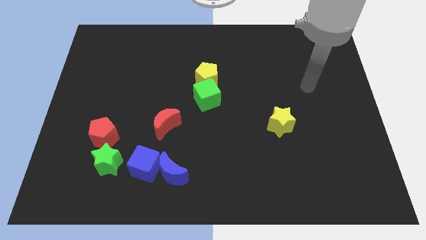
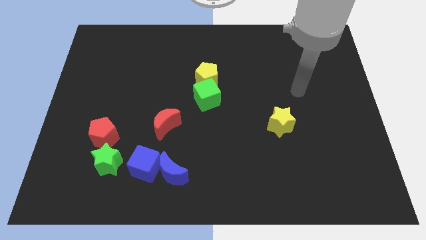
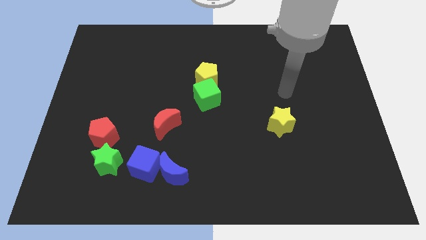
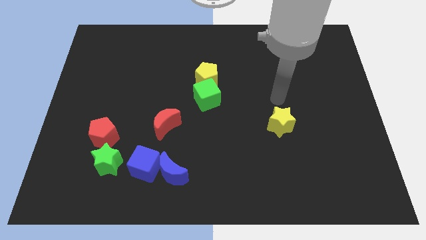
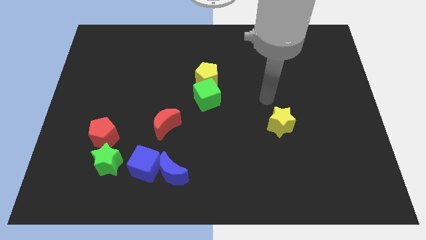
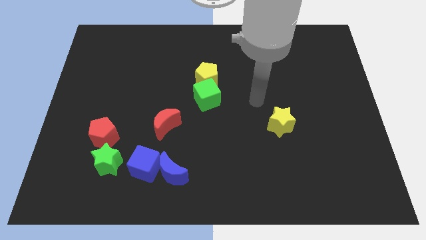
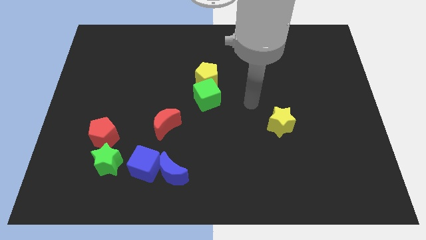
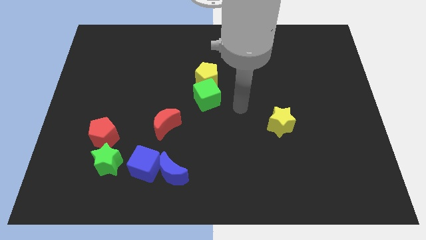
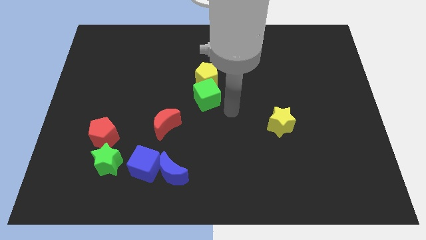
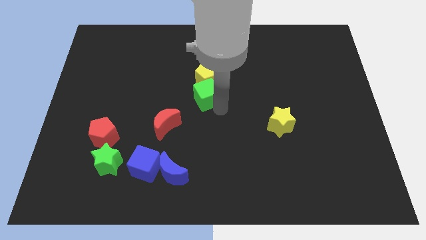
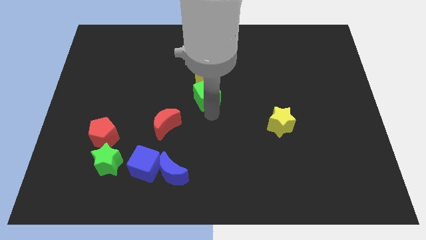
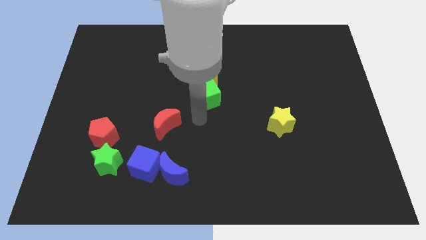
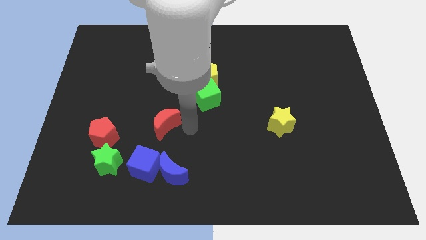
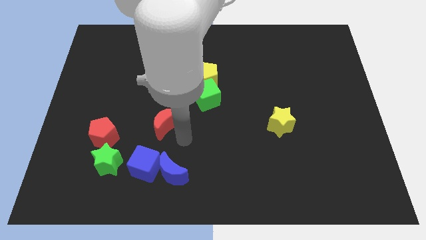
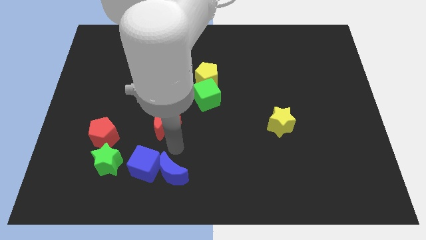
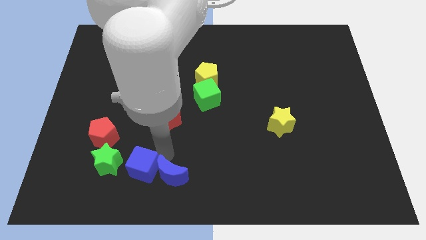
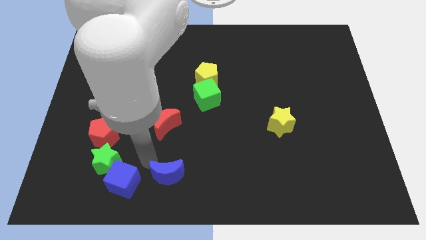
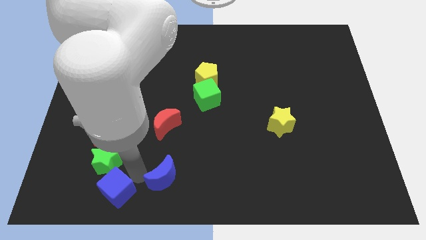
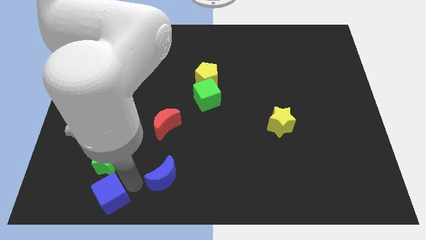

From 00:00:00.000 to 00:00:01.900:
separate the blue moon from the blue cube

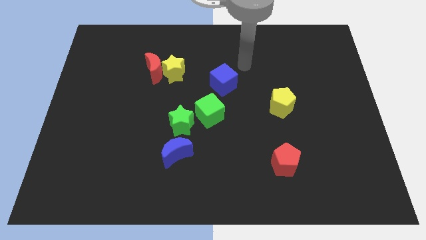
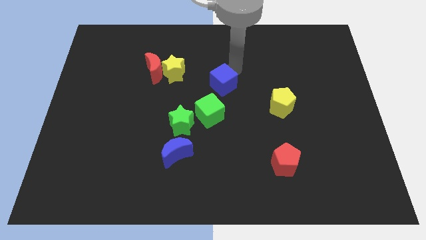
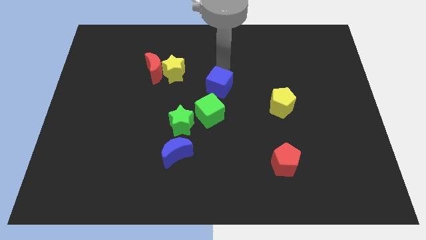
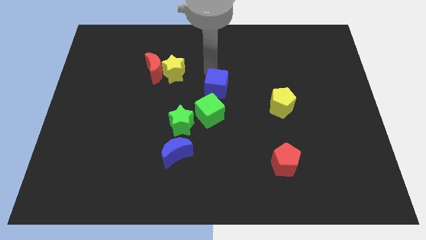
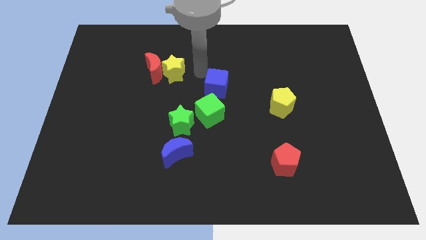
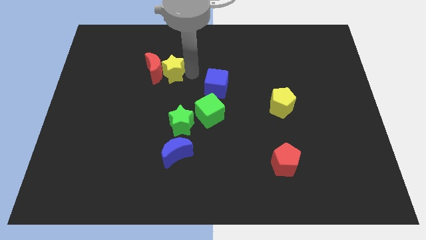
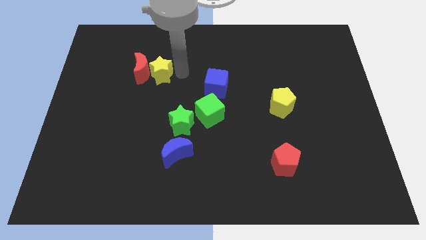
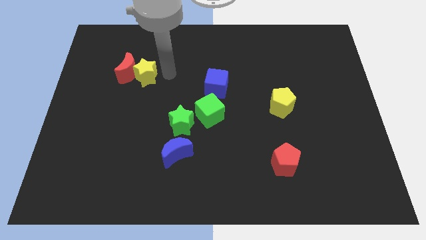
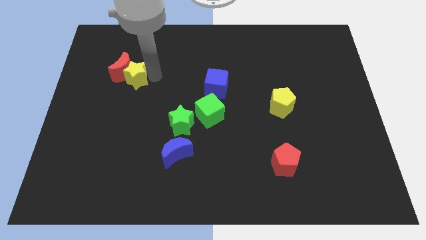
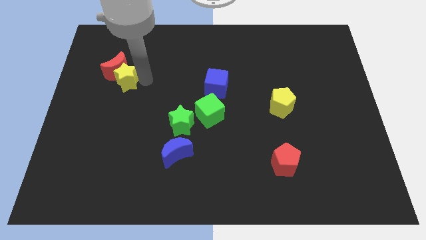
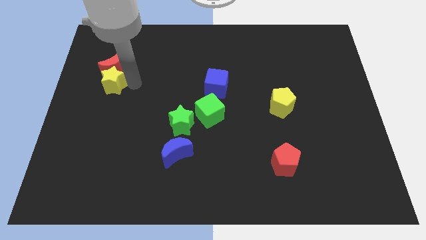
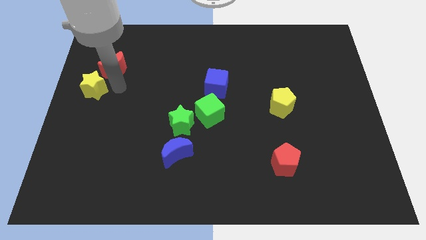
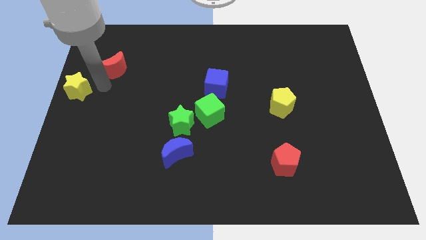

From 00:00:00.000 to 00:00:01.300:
move the red moon away from the yellow star

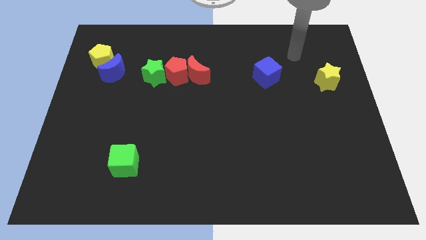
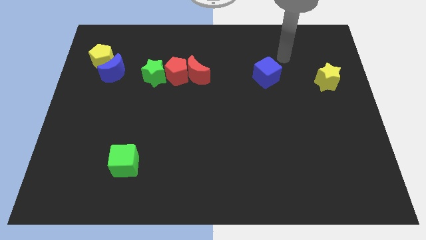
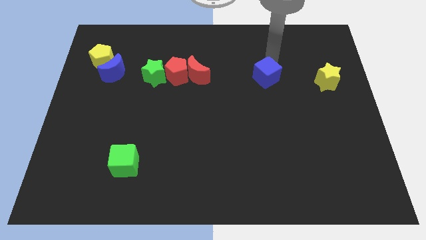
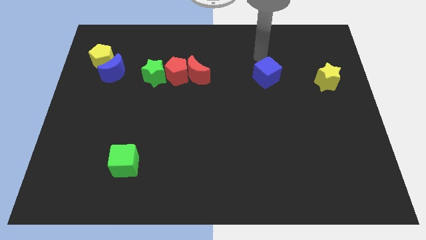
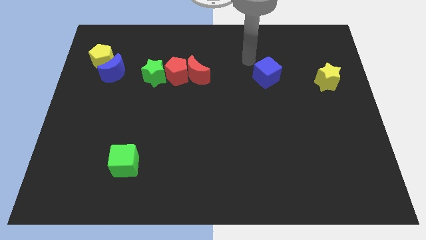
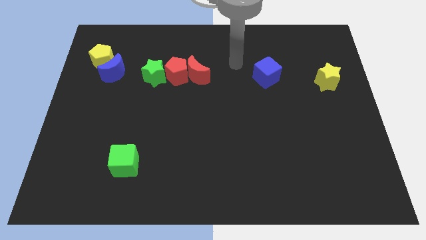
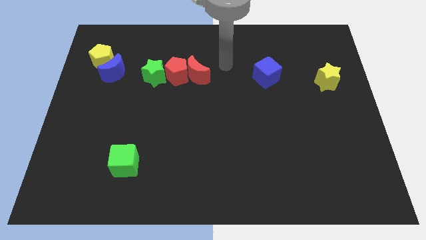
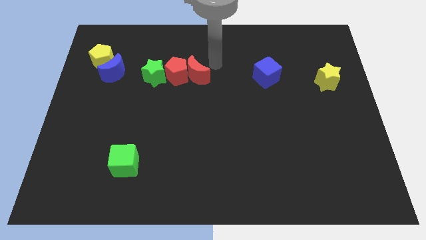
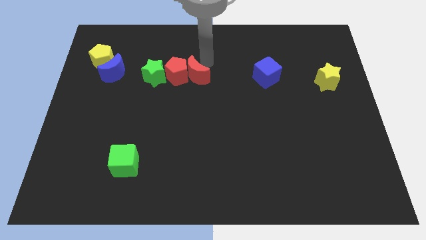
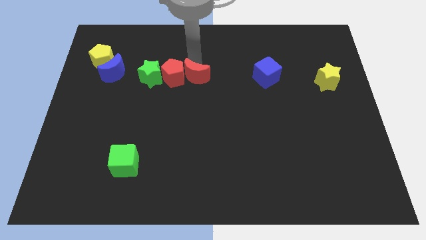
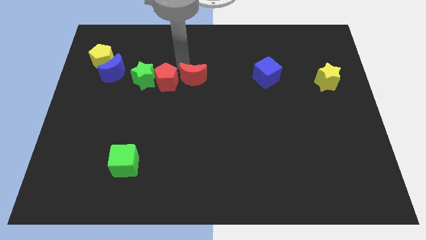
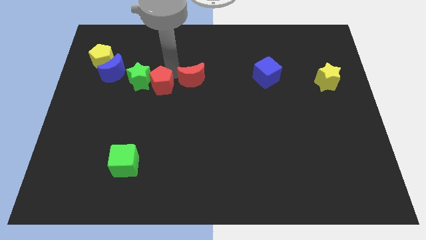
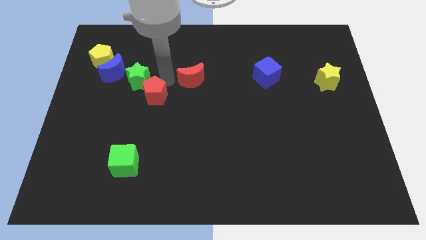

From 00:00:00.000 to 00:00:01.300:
separate the red moon from the red pentagon

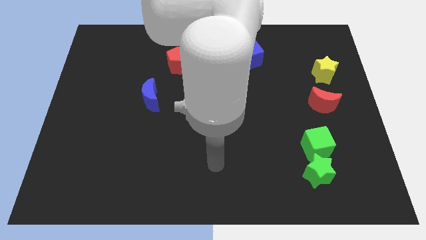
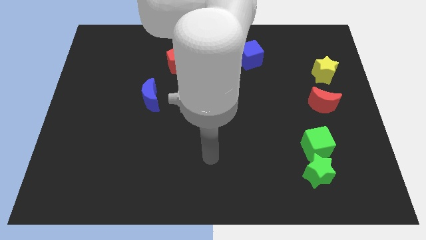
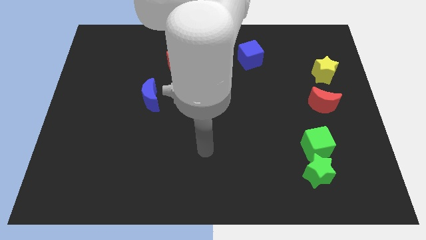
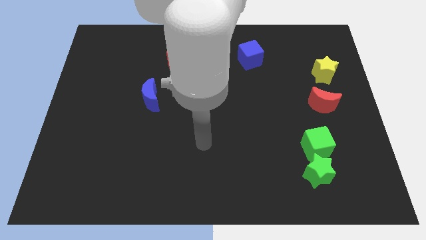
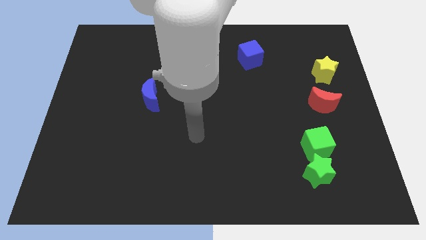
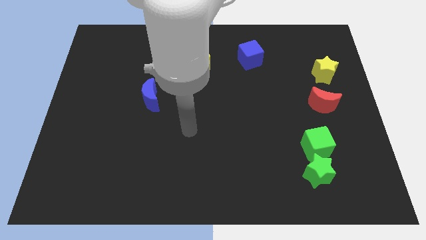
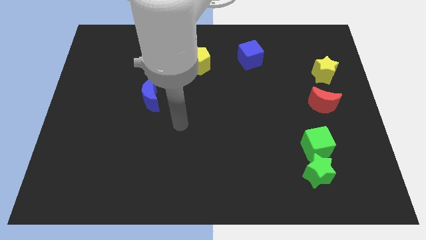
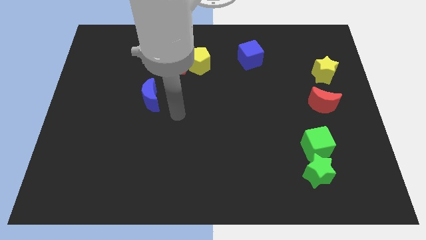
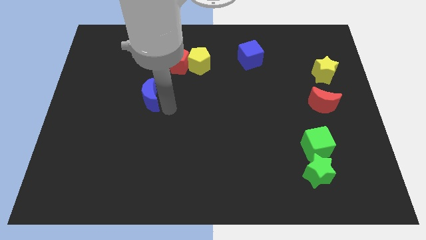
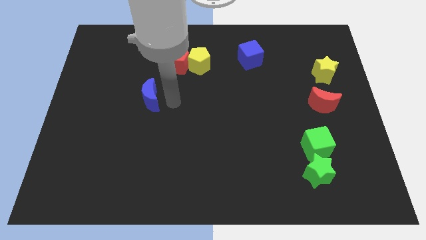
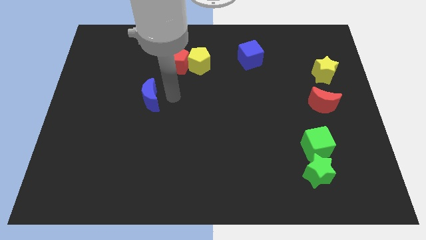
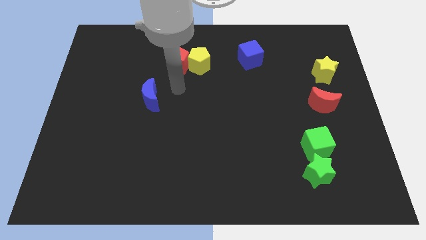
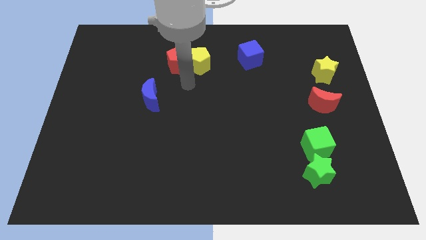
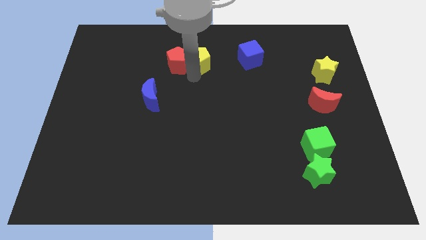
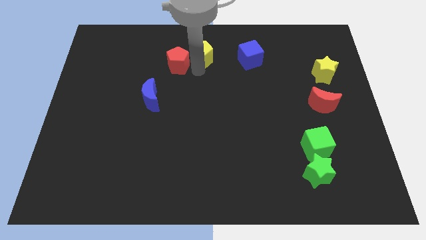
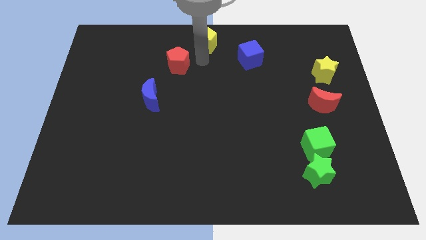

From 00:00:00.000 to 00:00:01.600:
pull the red pentagon apart from the yellow pentagon

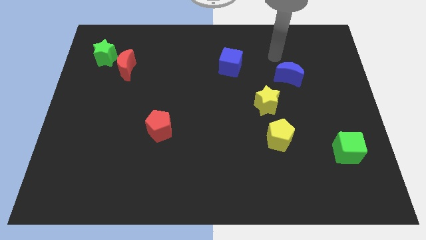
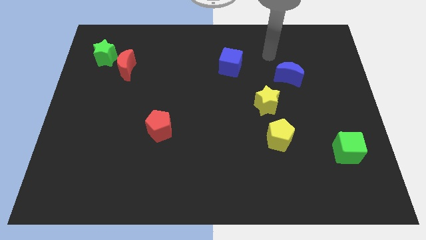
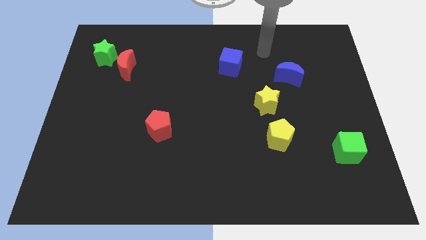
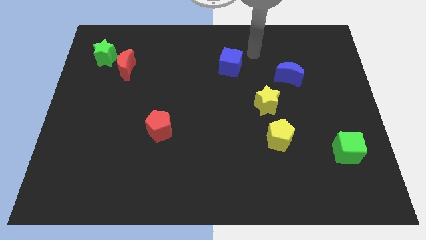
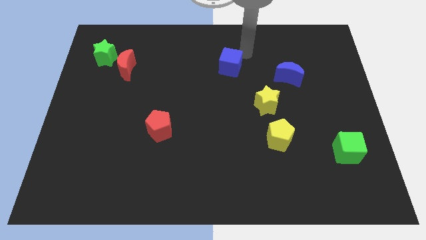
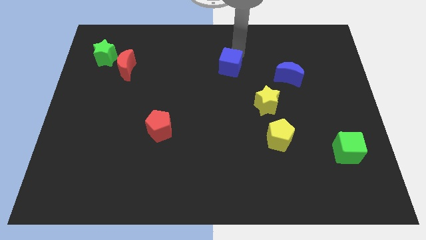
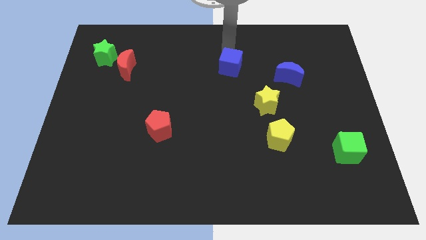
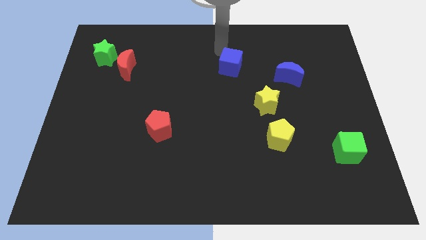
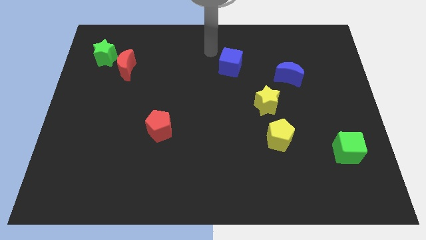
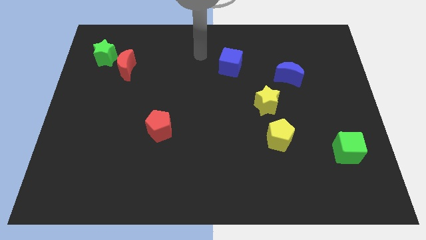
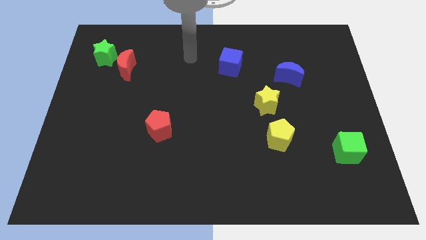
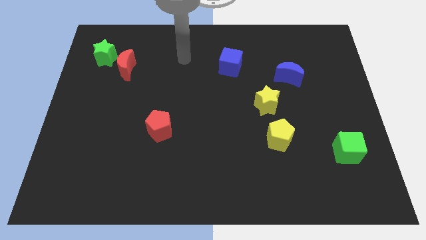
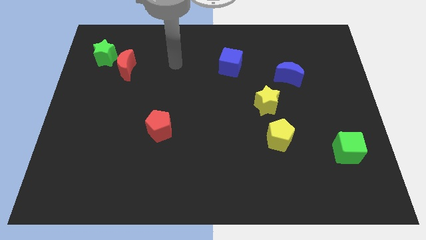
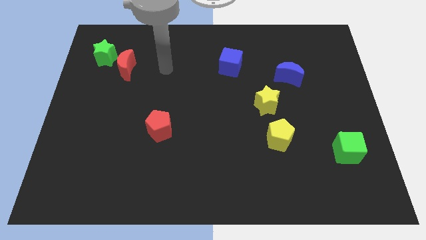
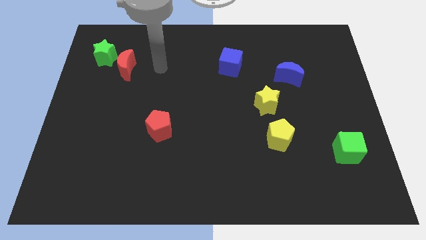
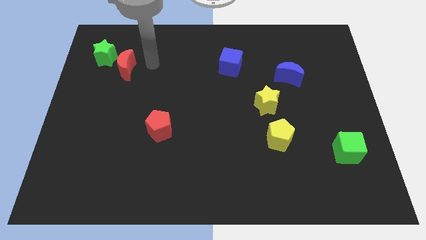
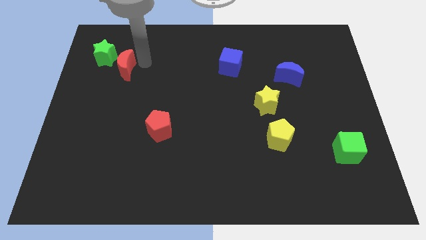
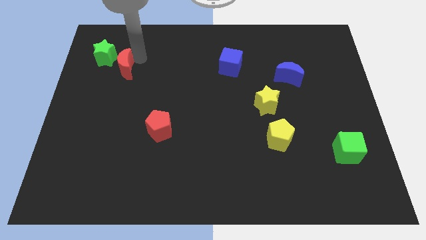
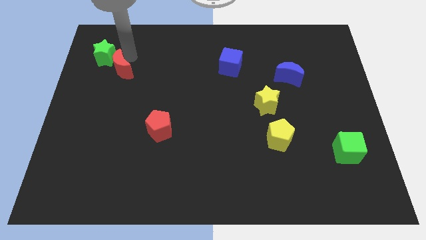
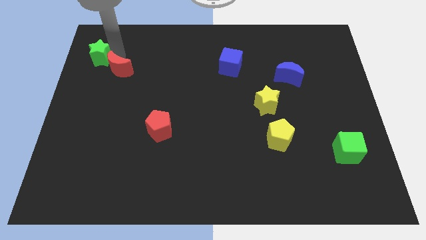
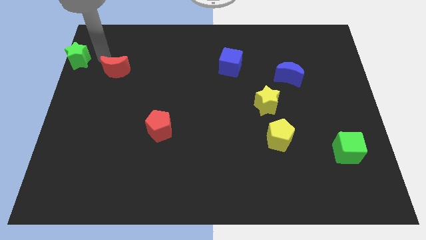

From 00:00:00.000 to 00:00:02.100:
pull the red moon apart from the green star

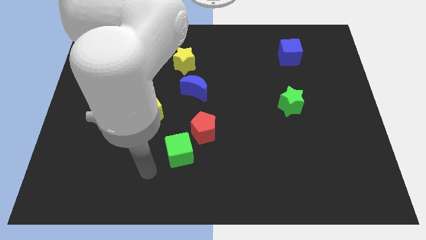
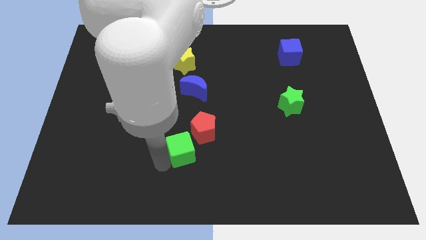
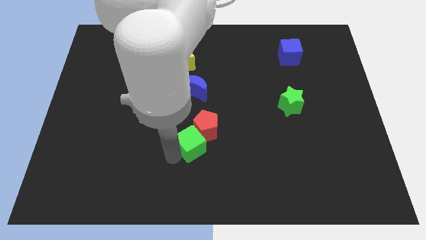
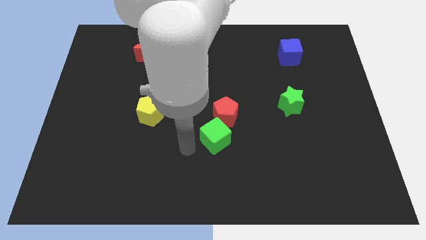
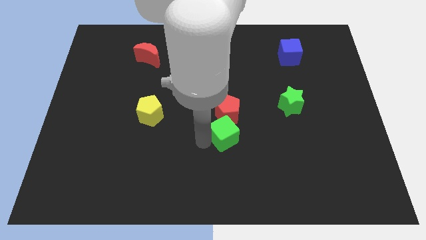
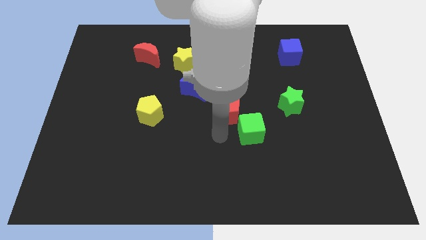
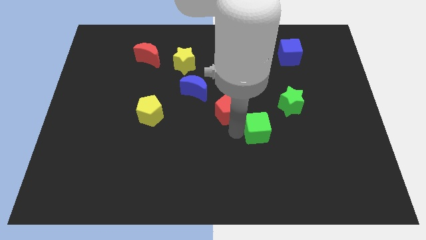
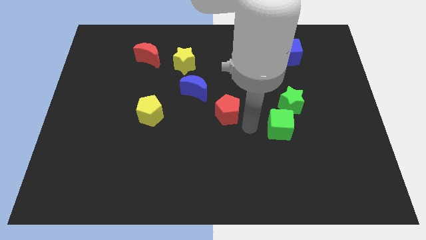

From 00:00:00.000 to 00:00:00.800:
pull the red pentagon apart from the green cube

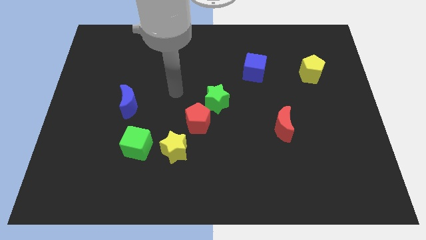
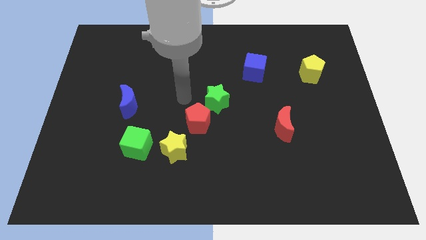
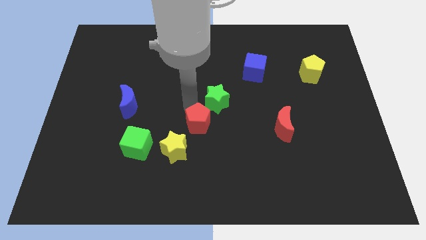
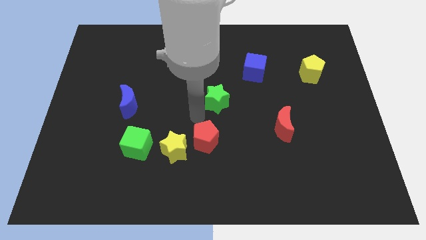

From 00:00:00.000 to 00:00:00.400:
separate the green star from the red pentagon
